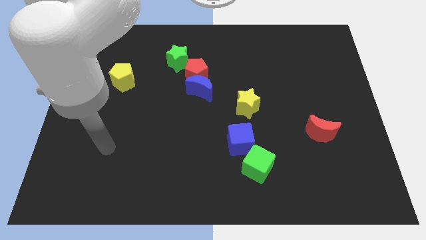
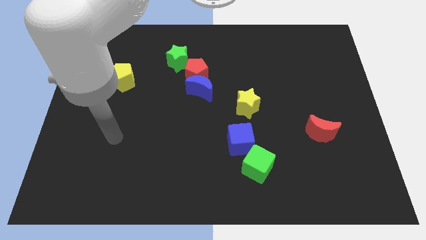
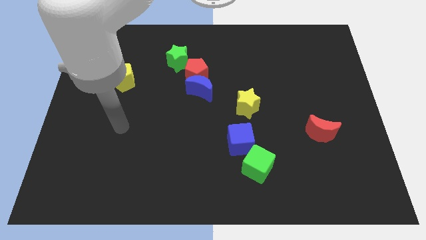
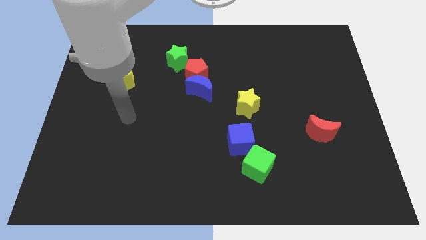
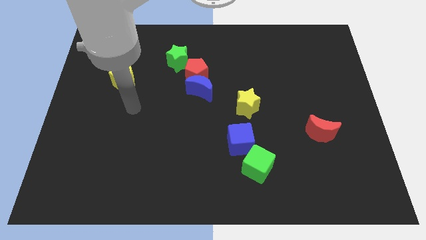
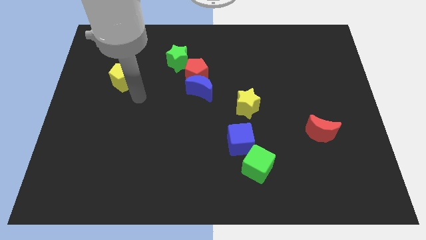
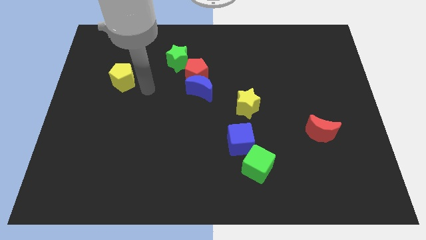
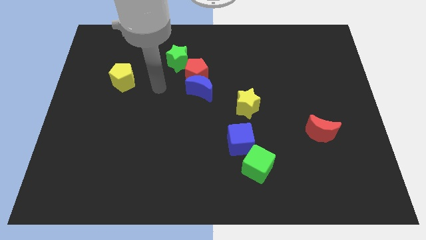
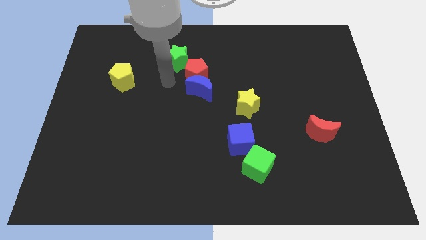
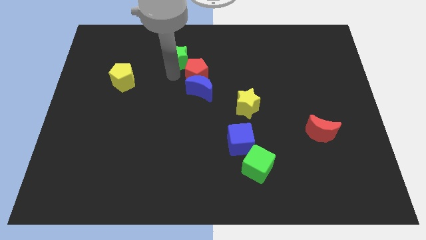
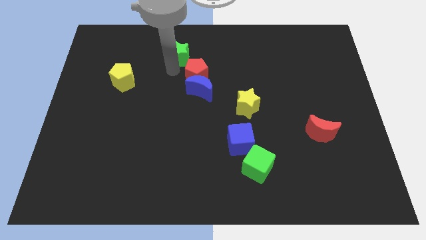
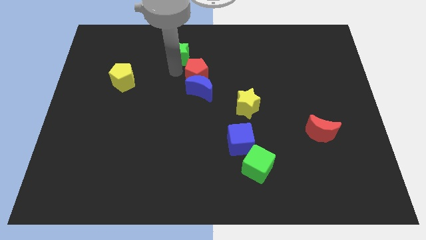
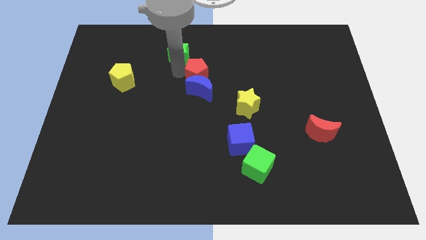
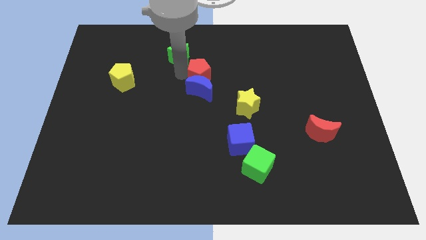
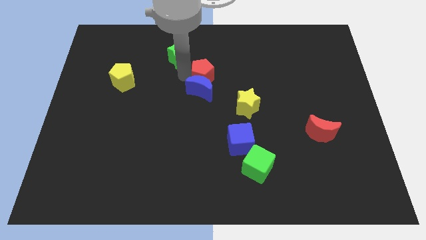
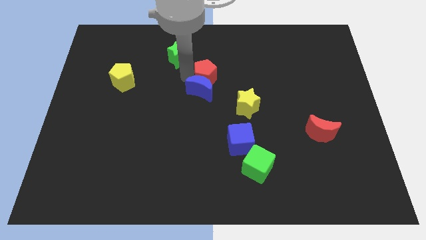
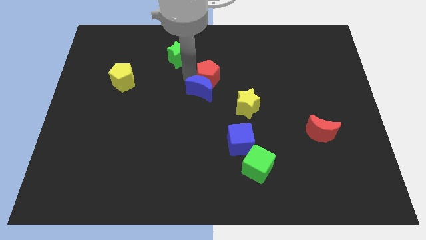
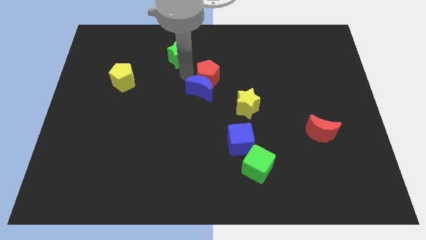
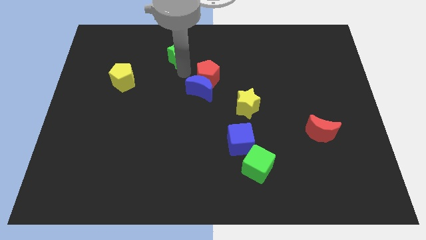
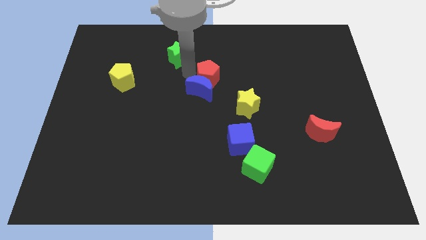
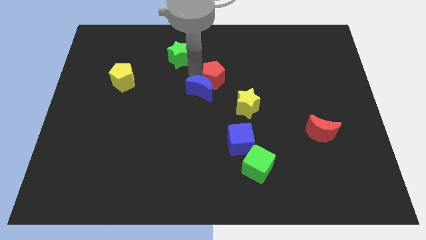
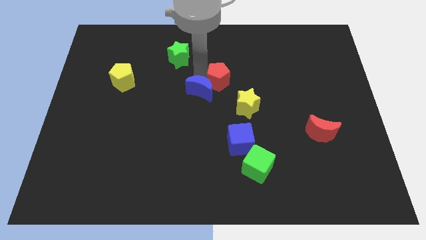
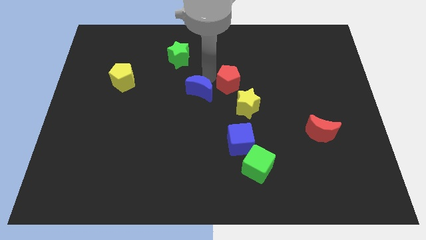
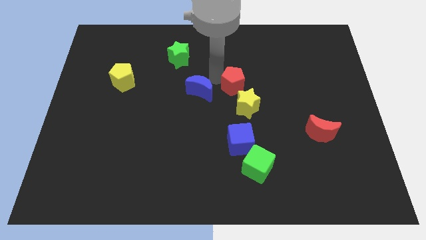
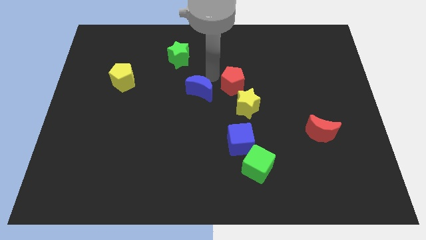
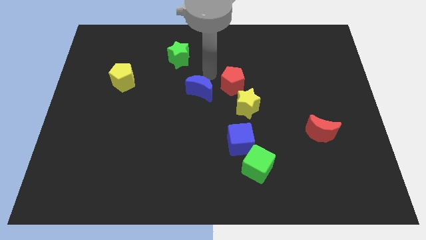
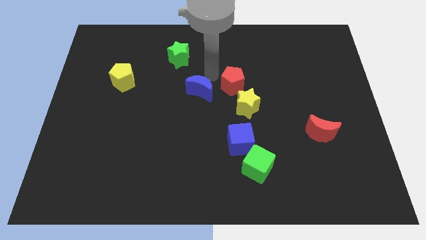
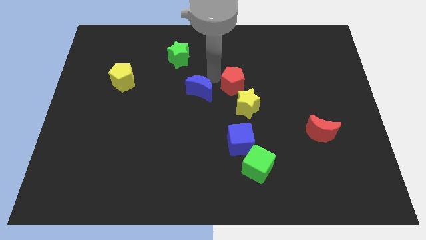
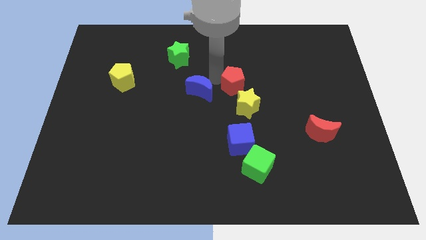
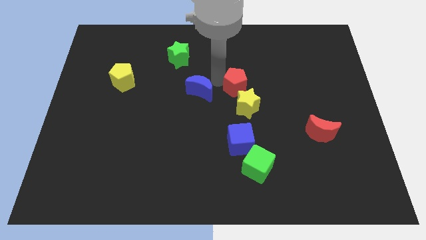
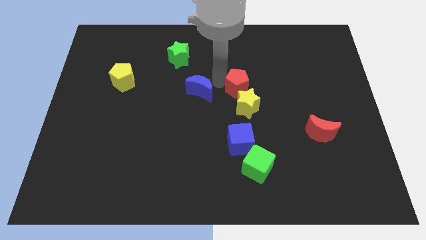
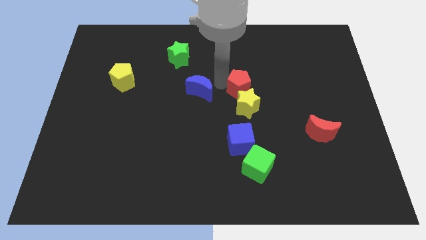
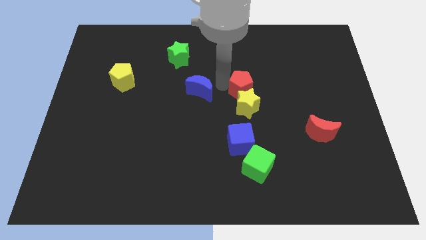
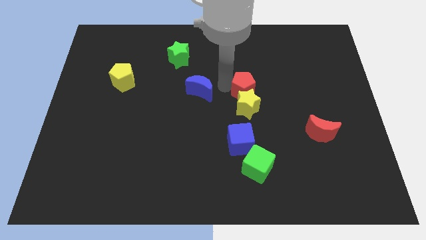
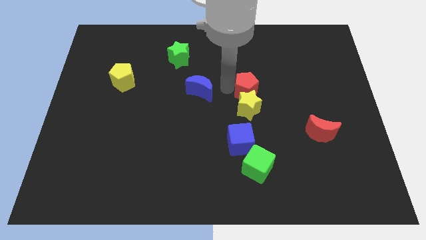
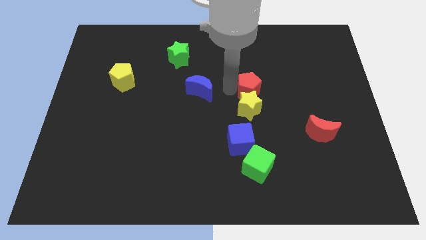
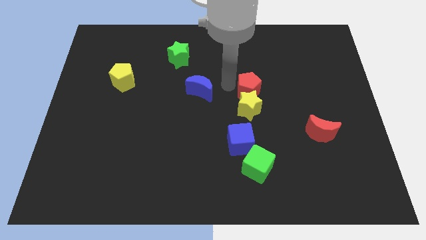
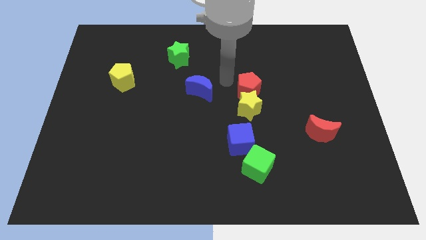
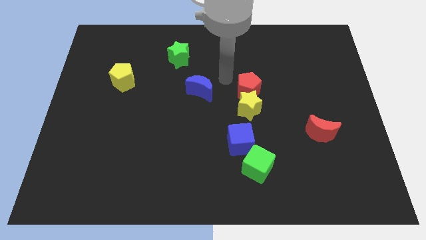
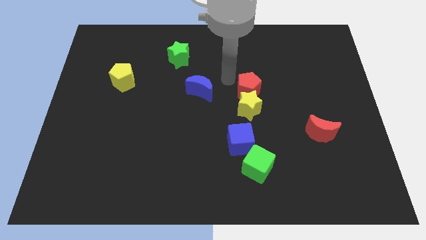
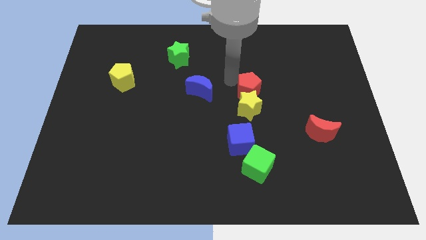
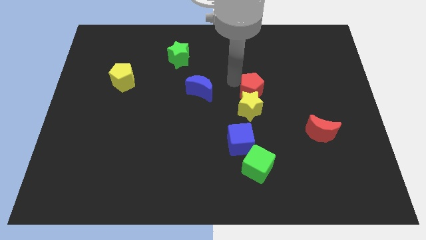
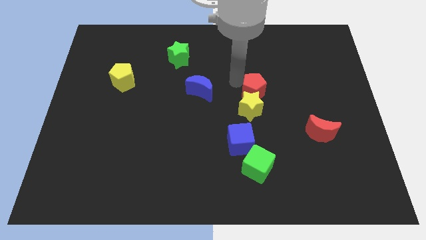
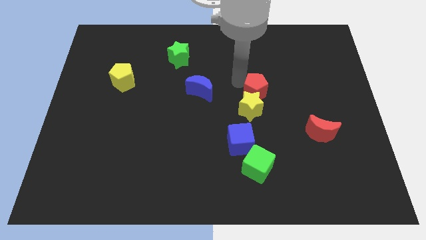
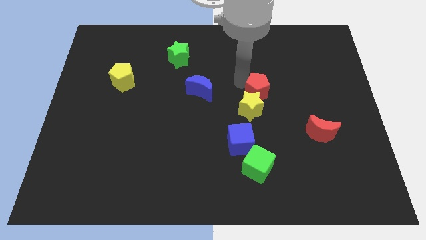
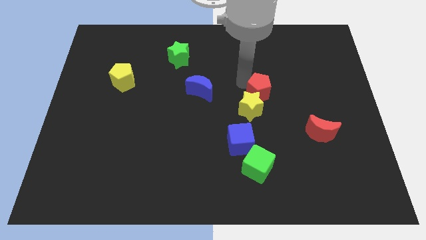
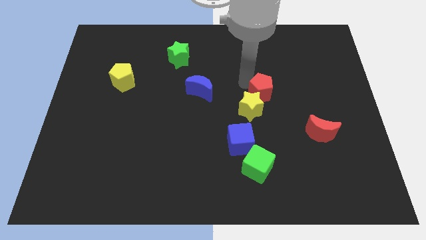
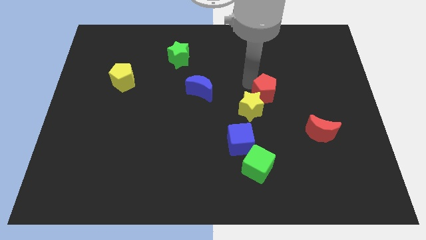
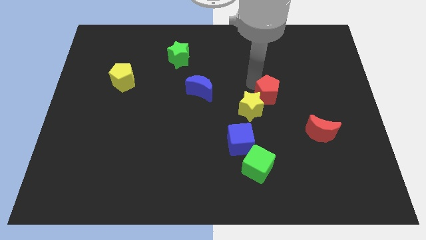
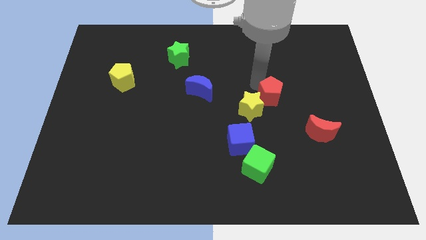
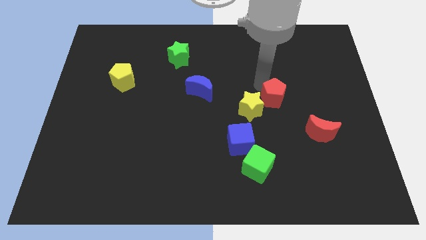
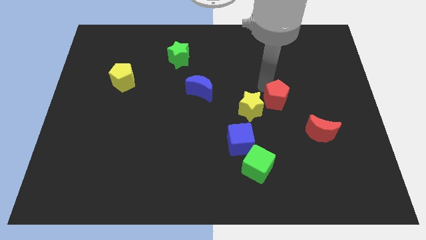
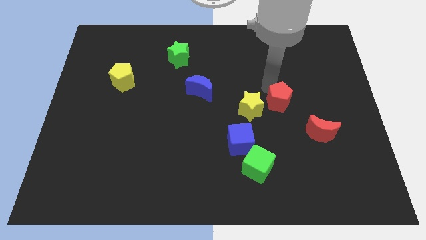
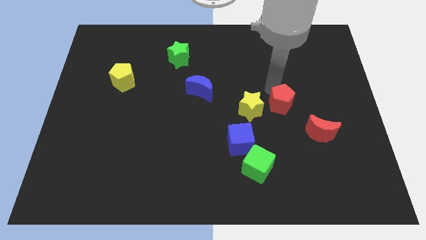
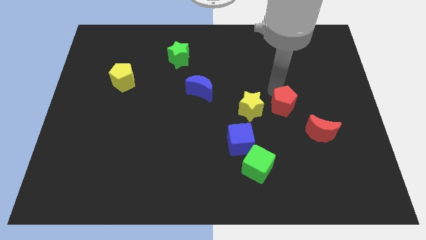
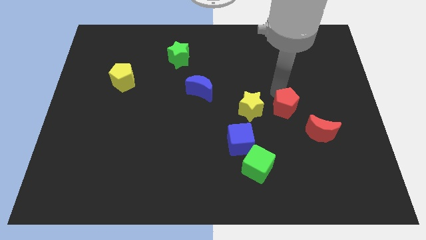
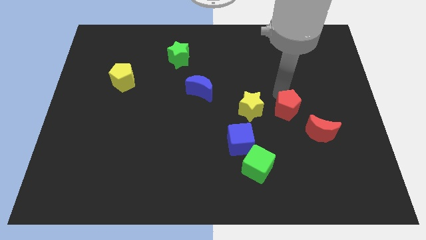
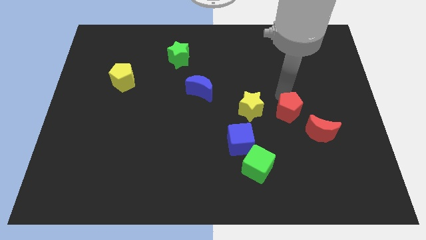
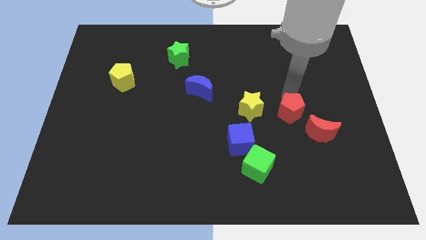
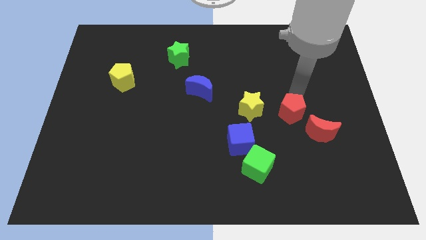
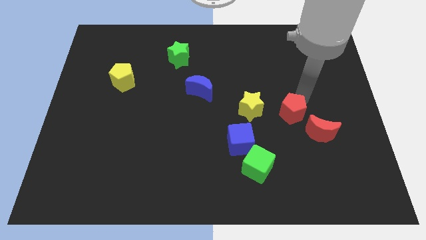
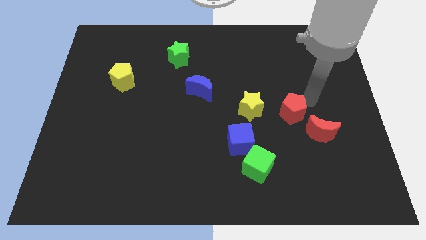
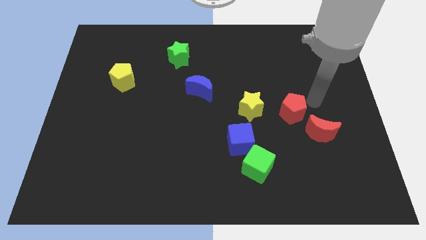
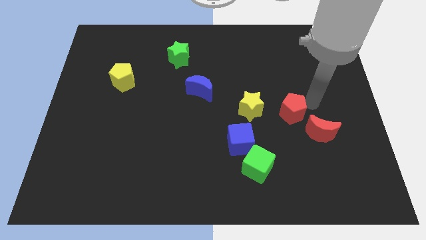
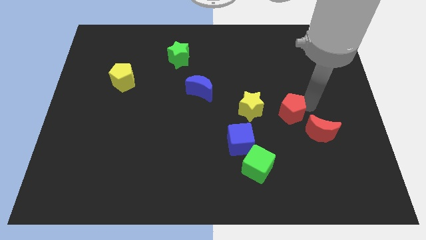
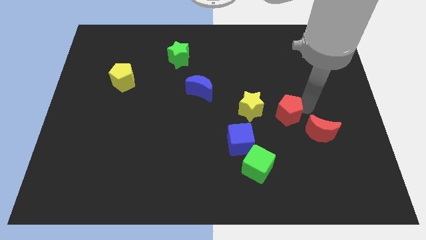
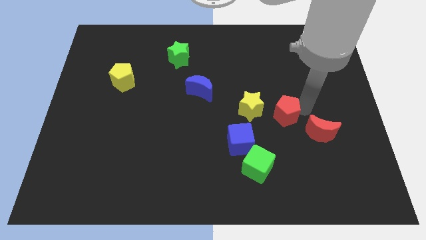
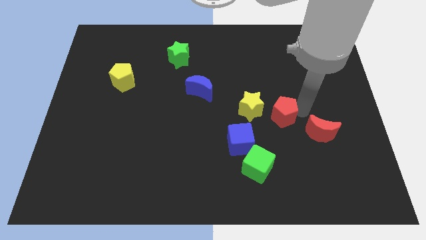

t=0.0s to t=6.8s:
push the red pentagon to the top right side of the blue cube
